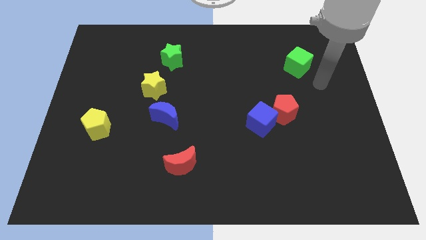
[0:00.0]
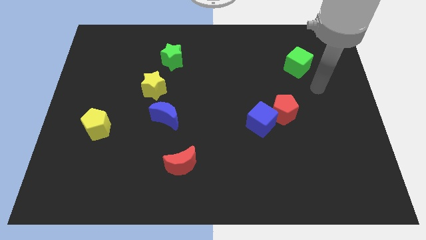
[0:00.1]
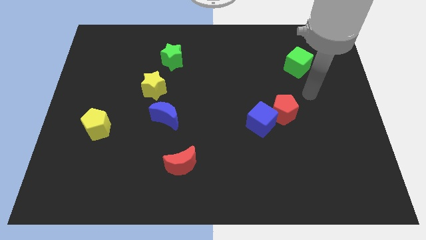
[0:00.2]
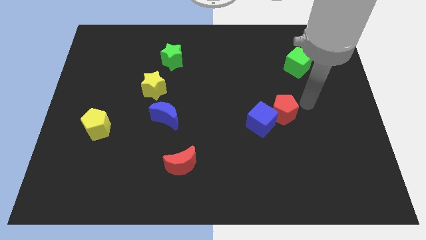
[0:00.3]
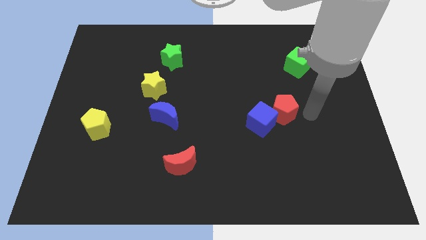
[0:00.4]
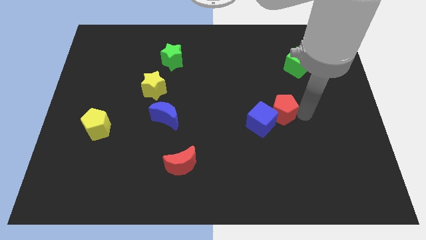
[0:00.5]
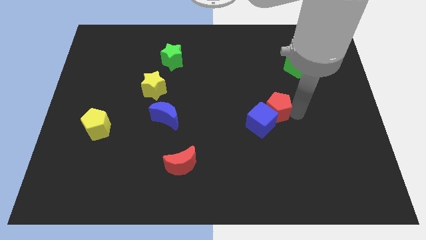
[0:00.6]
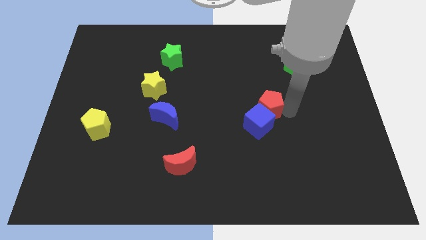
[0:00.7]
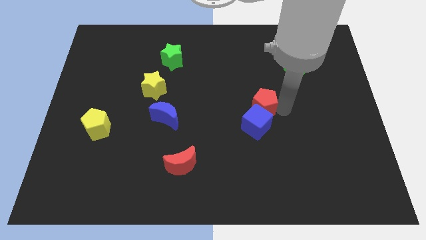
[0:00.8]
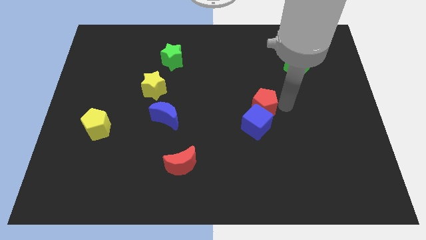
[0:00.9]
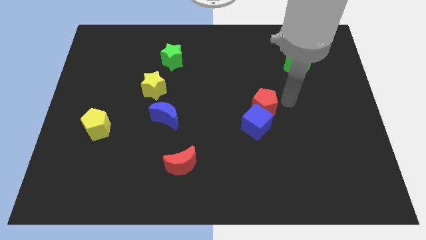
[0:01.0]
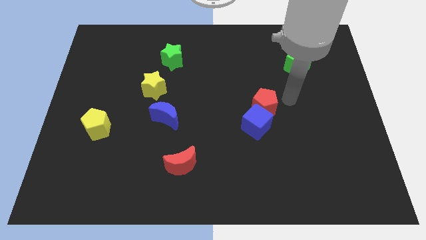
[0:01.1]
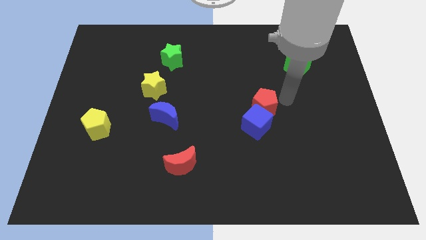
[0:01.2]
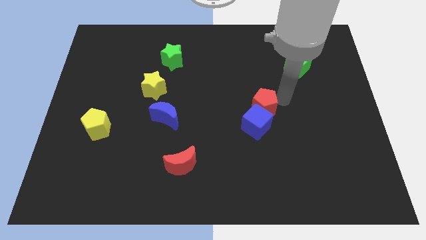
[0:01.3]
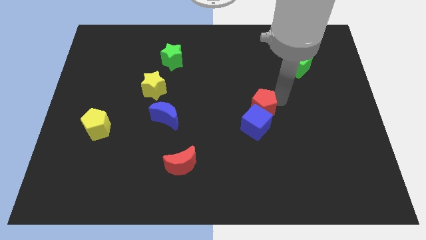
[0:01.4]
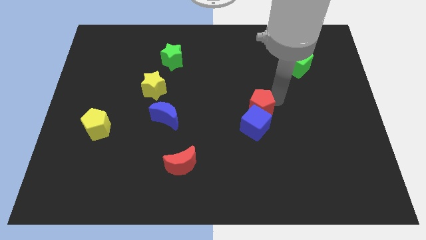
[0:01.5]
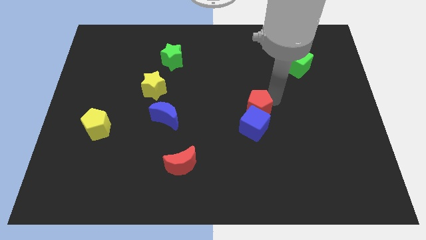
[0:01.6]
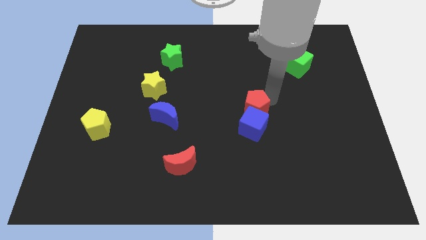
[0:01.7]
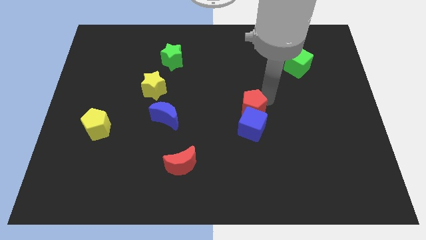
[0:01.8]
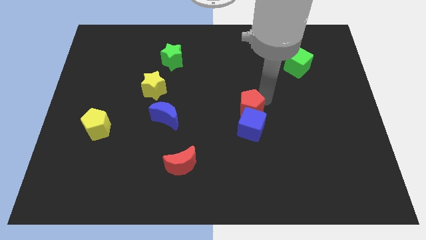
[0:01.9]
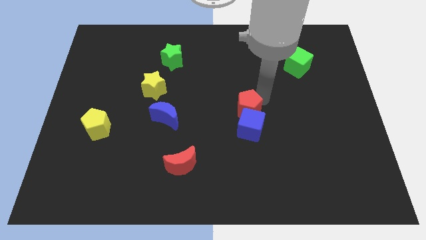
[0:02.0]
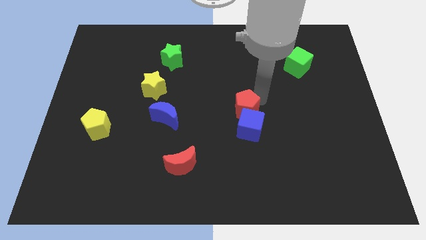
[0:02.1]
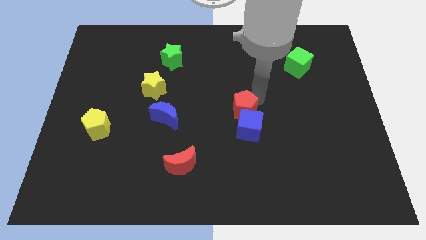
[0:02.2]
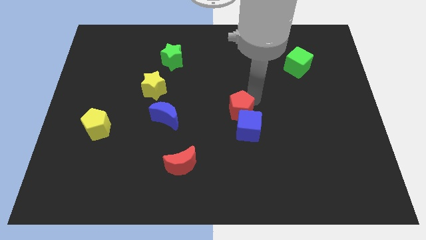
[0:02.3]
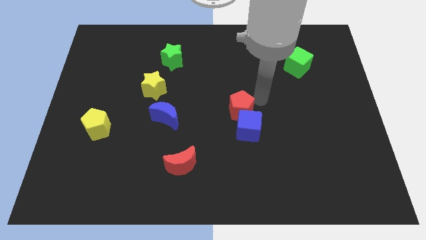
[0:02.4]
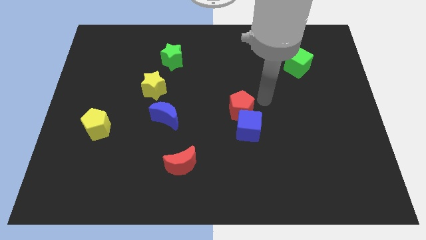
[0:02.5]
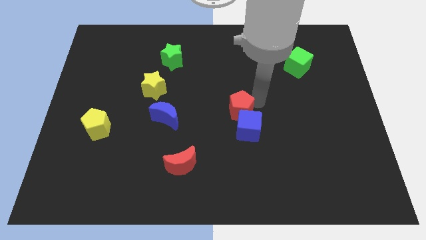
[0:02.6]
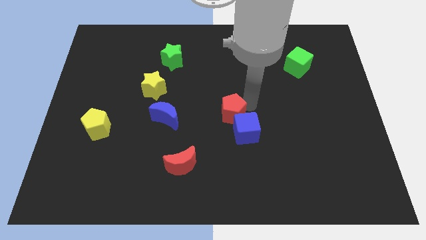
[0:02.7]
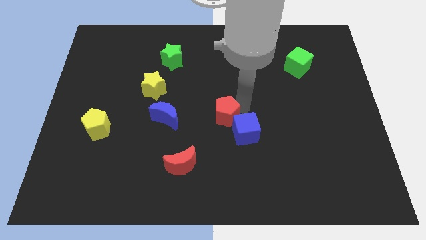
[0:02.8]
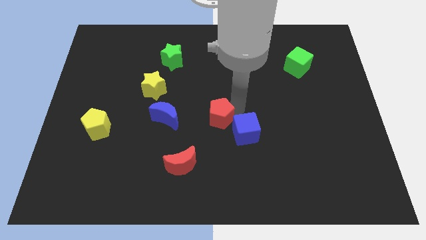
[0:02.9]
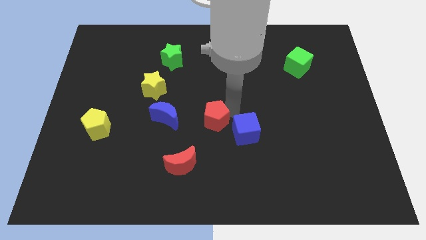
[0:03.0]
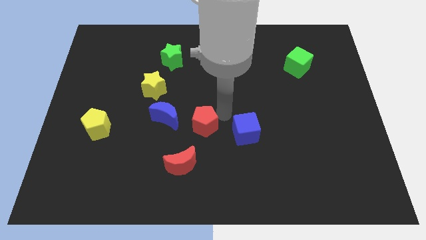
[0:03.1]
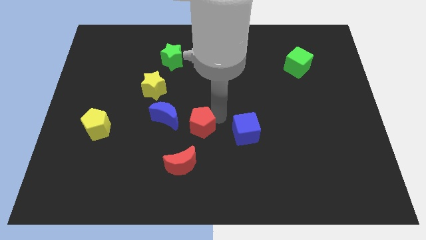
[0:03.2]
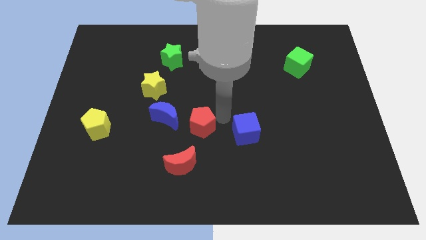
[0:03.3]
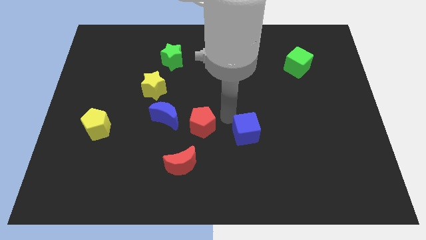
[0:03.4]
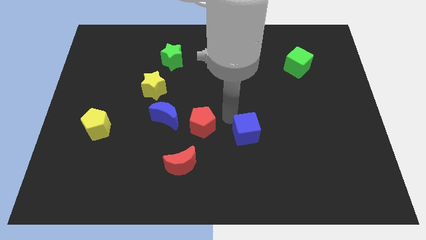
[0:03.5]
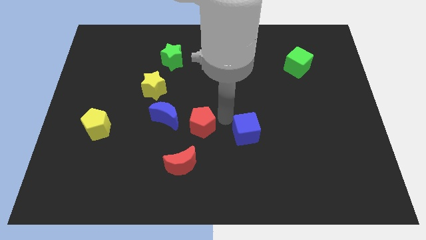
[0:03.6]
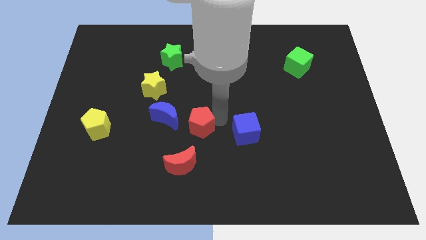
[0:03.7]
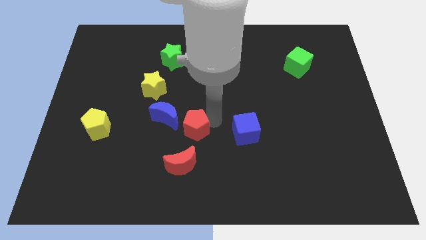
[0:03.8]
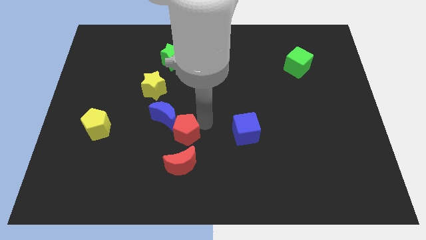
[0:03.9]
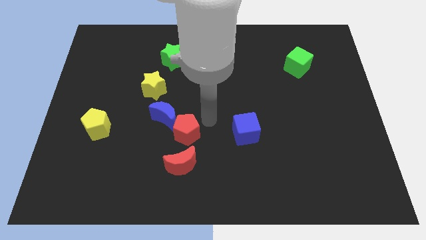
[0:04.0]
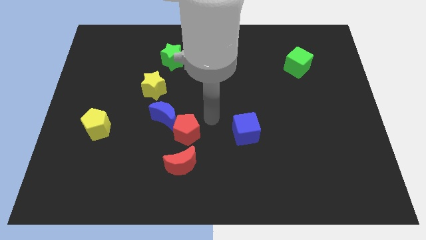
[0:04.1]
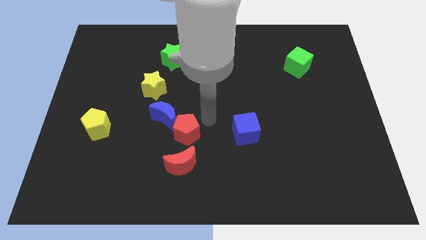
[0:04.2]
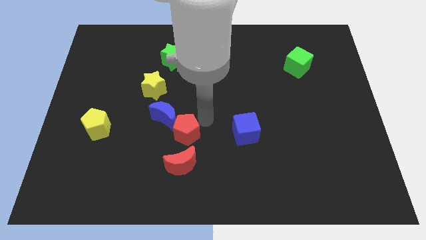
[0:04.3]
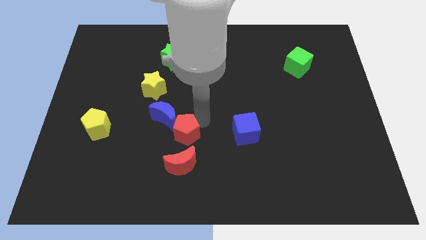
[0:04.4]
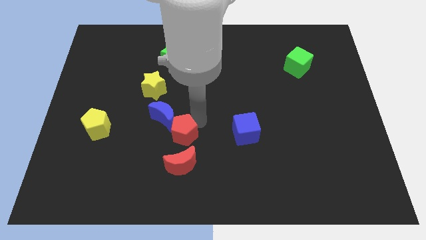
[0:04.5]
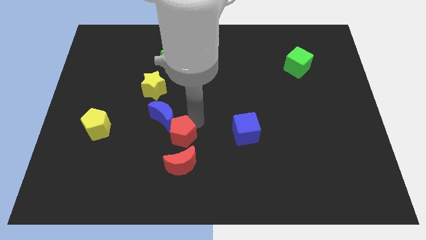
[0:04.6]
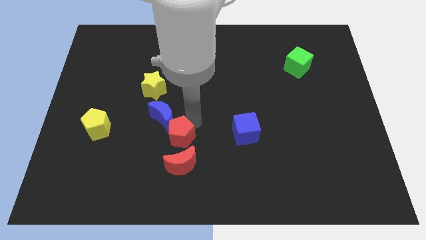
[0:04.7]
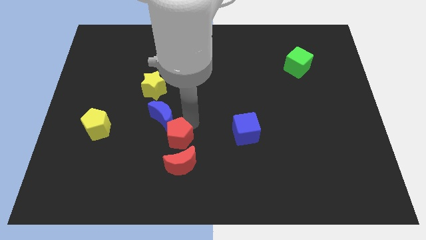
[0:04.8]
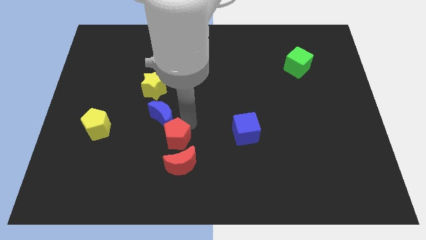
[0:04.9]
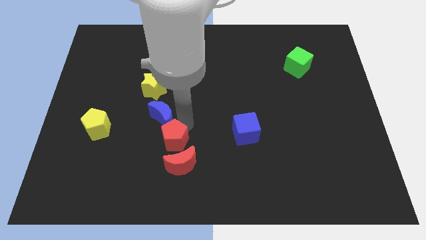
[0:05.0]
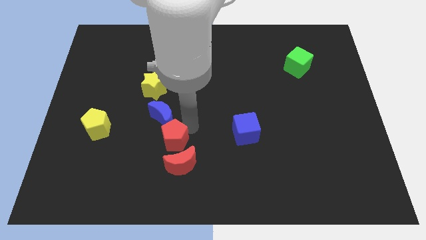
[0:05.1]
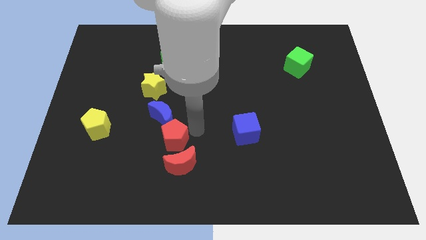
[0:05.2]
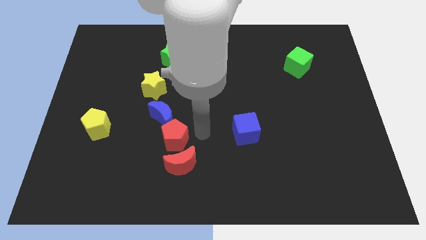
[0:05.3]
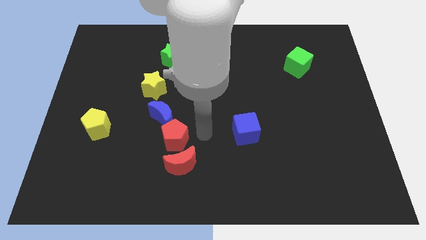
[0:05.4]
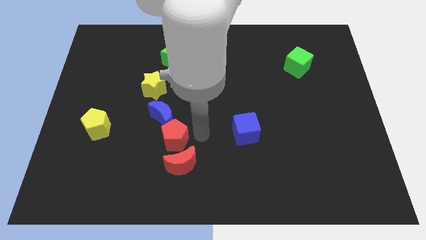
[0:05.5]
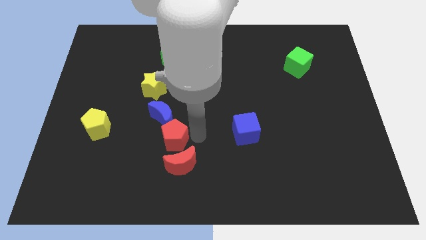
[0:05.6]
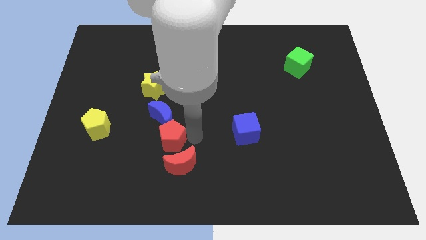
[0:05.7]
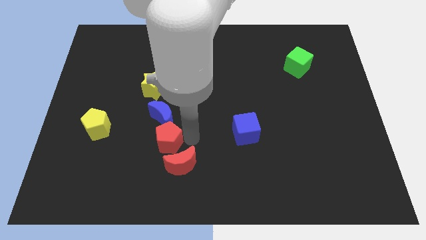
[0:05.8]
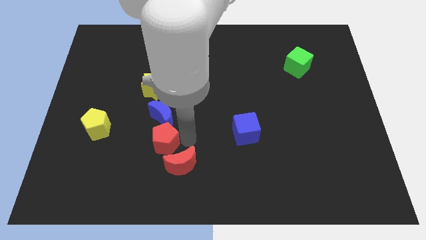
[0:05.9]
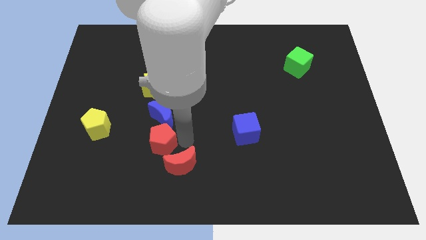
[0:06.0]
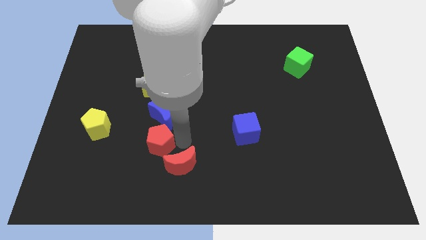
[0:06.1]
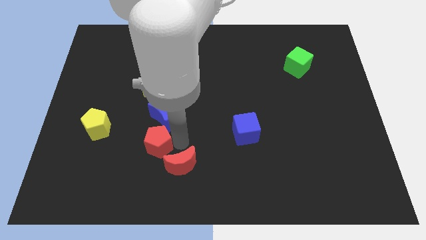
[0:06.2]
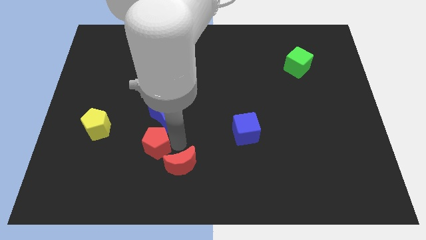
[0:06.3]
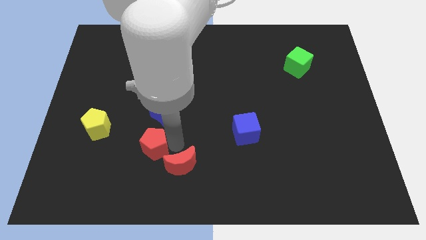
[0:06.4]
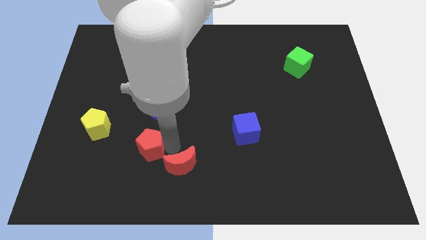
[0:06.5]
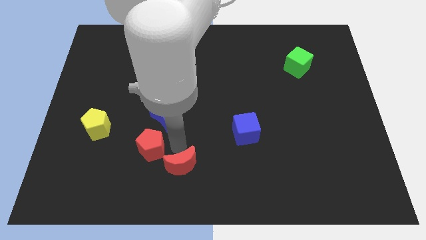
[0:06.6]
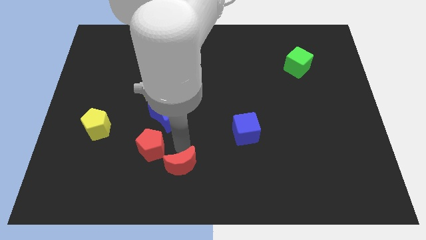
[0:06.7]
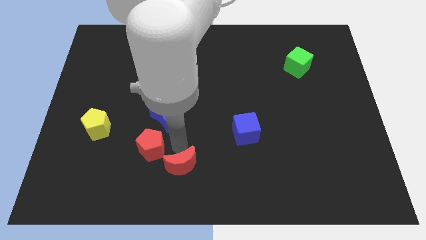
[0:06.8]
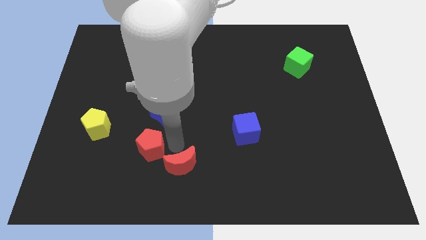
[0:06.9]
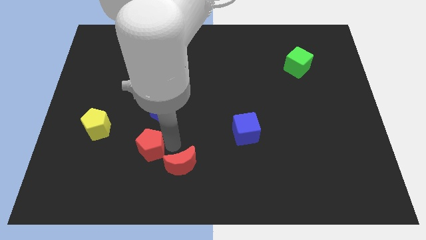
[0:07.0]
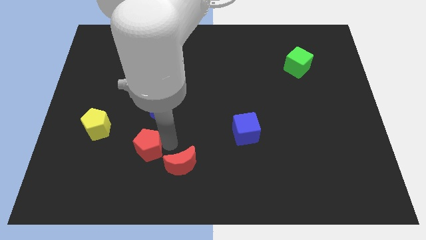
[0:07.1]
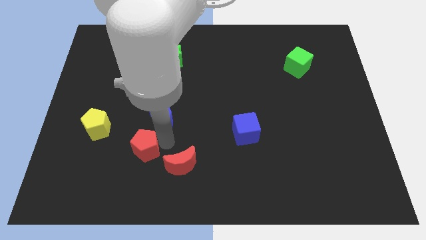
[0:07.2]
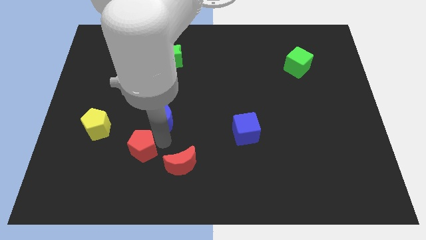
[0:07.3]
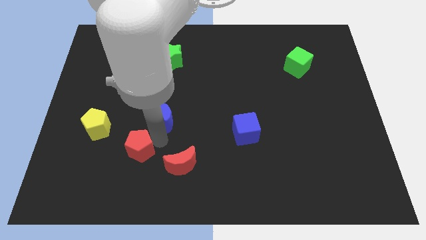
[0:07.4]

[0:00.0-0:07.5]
put the red pentagon to the bottom right side of the yellow pentagon
